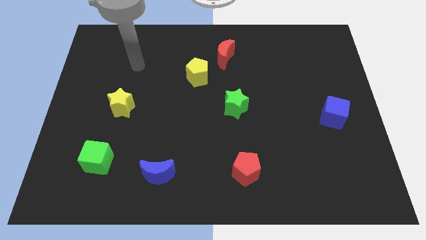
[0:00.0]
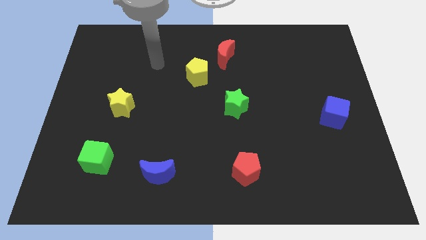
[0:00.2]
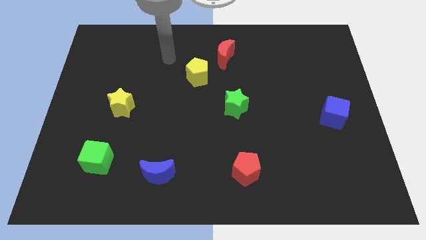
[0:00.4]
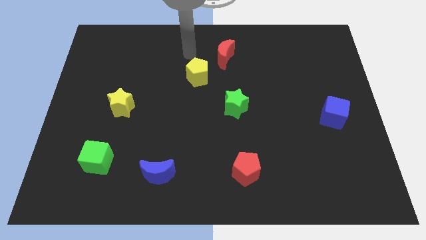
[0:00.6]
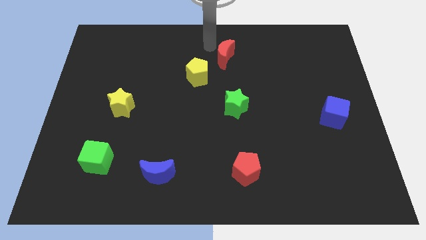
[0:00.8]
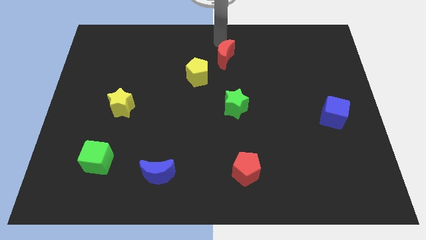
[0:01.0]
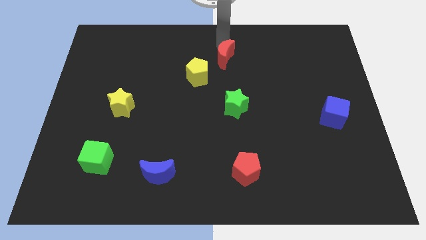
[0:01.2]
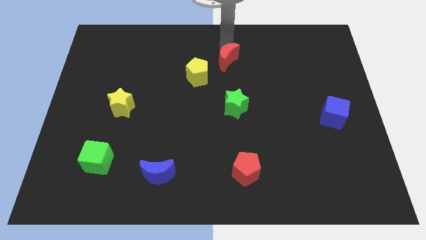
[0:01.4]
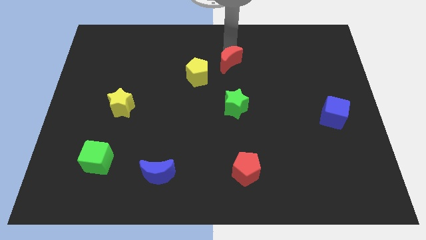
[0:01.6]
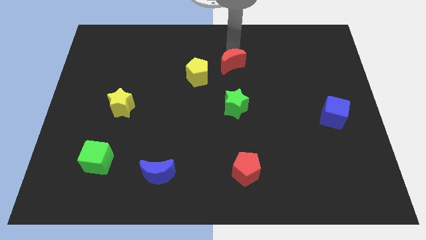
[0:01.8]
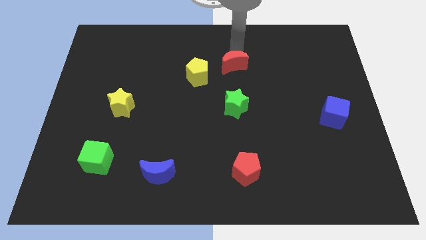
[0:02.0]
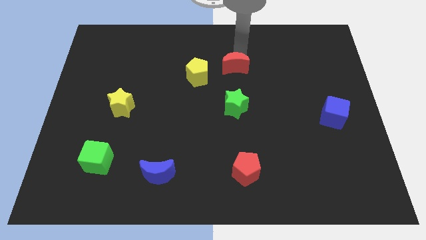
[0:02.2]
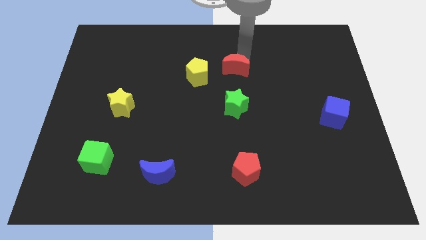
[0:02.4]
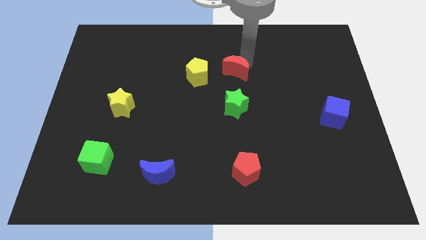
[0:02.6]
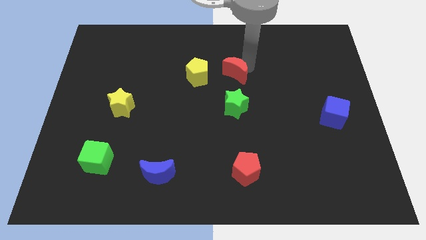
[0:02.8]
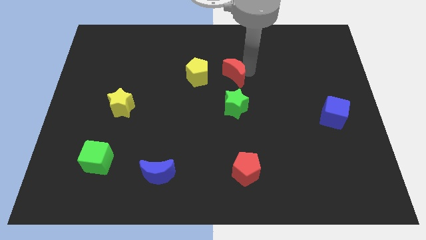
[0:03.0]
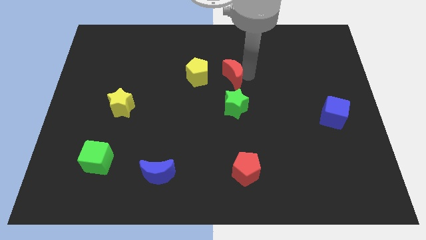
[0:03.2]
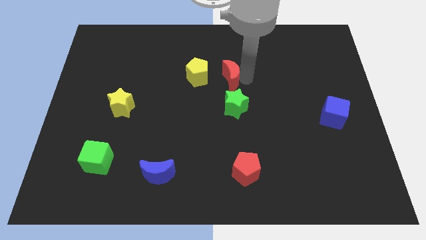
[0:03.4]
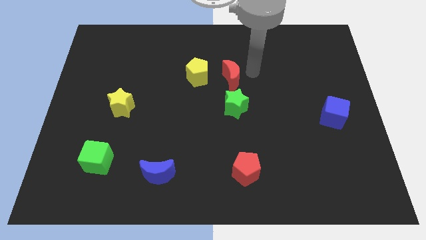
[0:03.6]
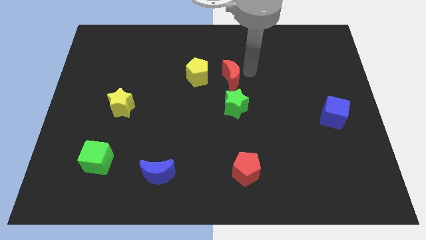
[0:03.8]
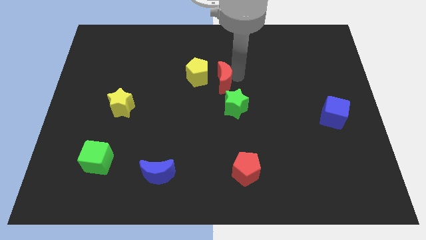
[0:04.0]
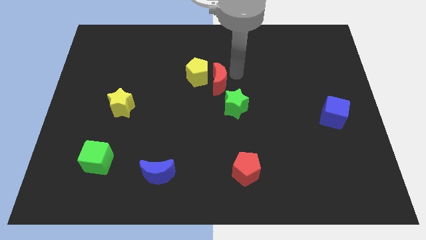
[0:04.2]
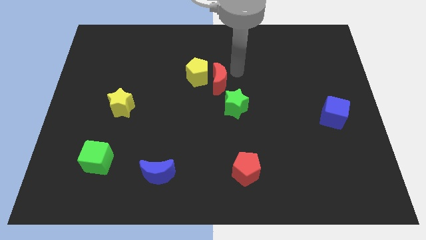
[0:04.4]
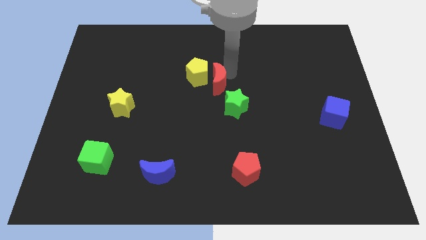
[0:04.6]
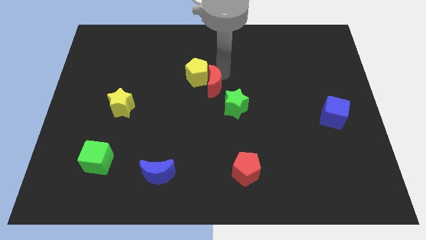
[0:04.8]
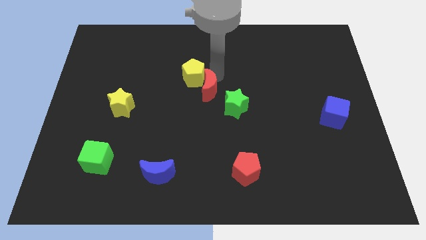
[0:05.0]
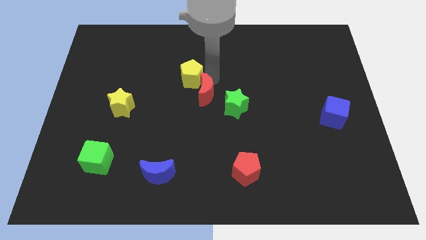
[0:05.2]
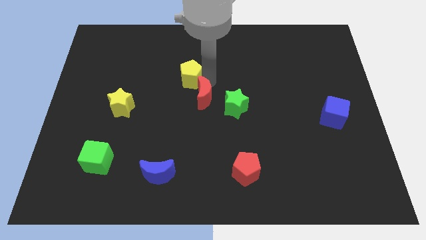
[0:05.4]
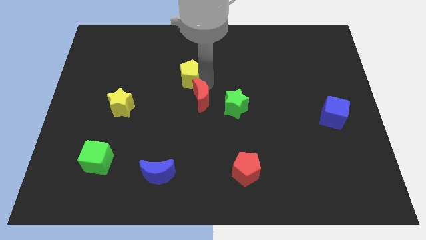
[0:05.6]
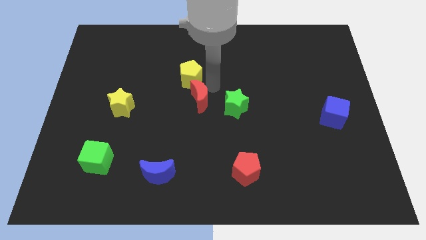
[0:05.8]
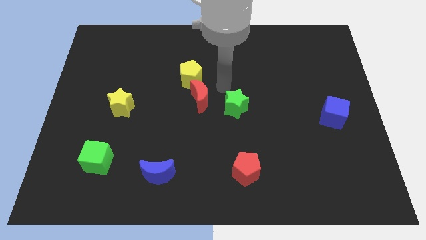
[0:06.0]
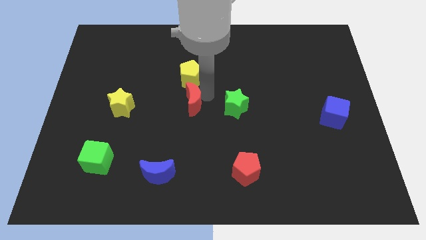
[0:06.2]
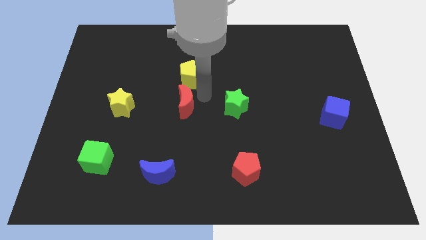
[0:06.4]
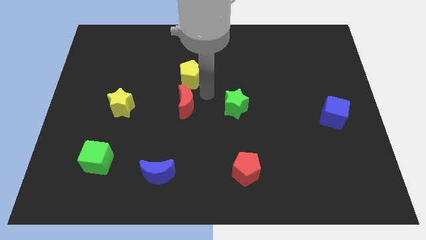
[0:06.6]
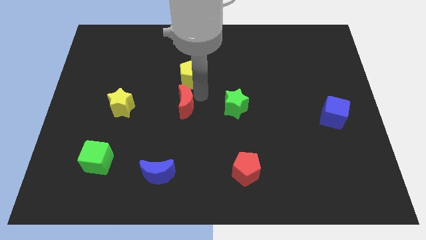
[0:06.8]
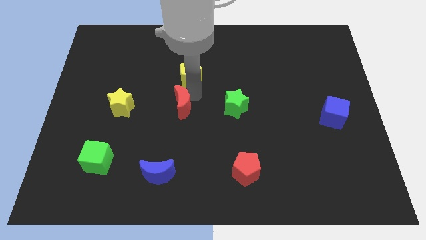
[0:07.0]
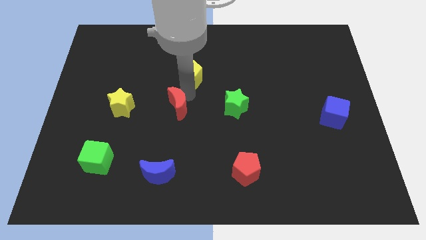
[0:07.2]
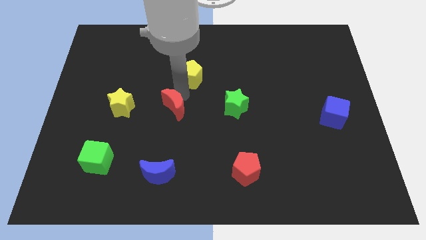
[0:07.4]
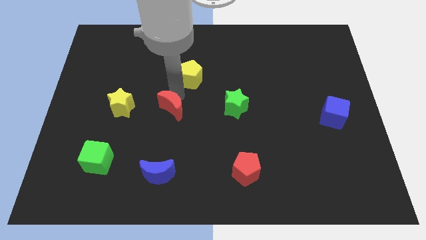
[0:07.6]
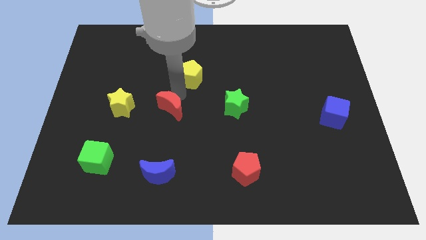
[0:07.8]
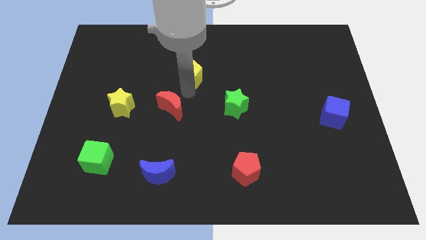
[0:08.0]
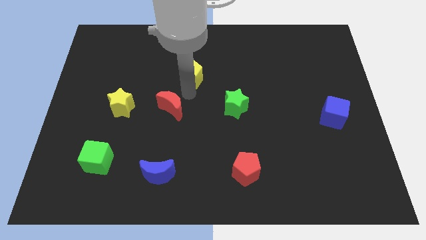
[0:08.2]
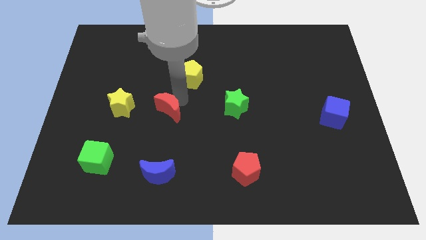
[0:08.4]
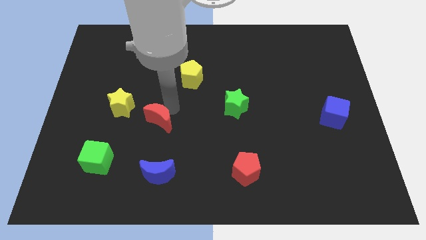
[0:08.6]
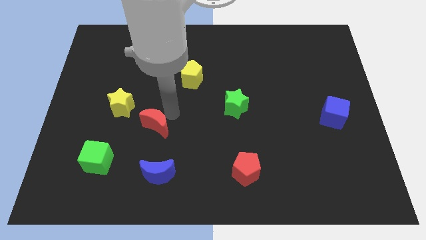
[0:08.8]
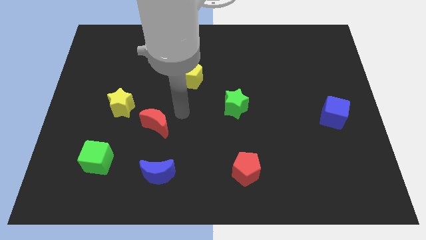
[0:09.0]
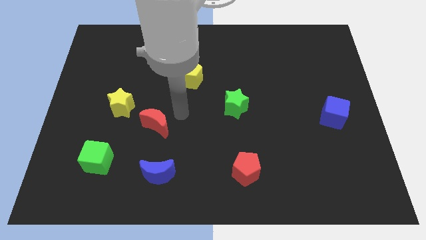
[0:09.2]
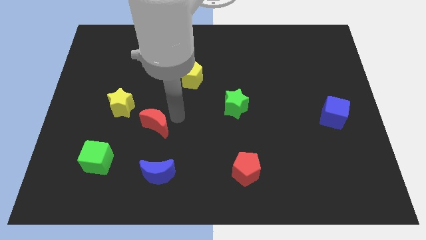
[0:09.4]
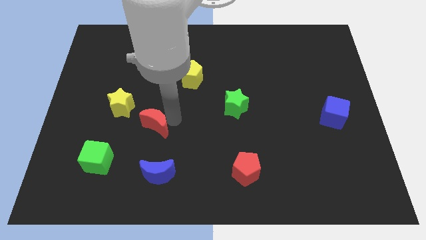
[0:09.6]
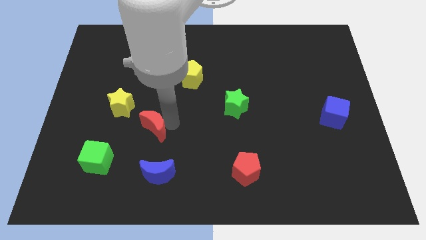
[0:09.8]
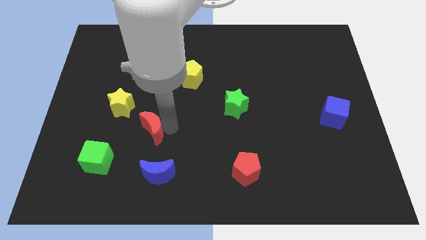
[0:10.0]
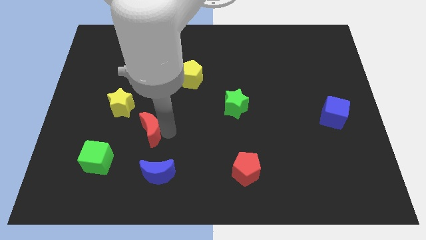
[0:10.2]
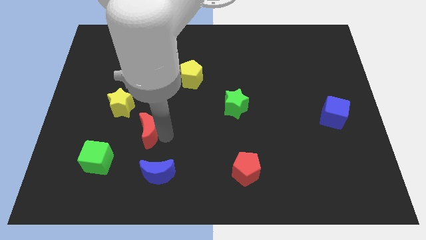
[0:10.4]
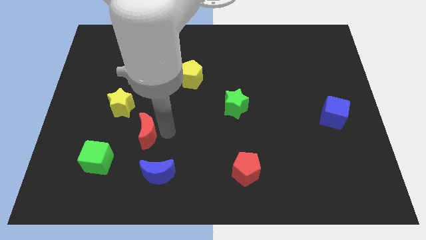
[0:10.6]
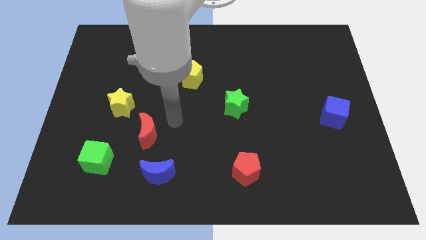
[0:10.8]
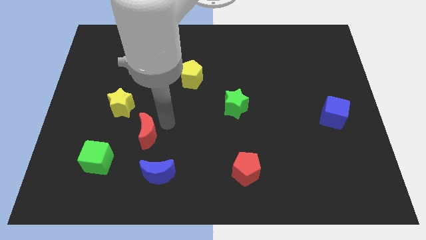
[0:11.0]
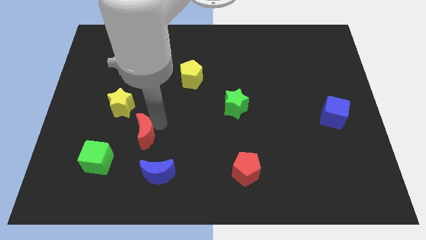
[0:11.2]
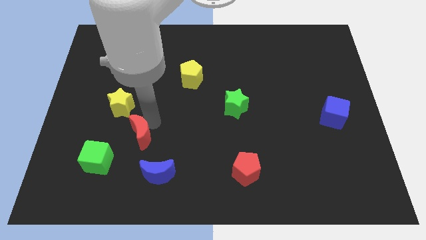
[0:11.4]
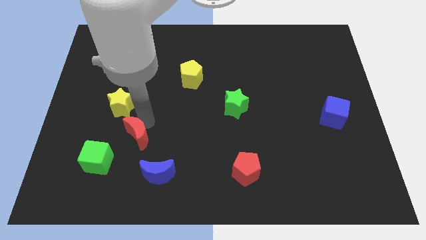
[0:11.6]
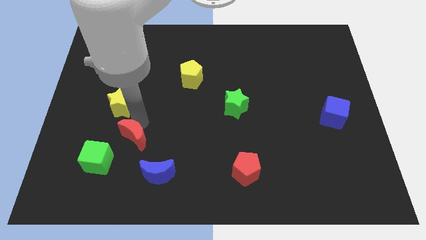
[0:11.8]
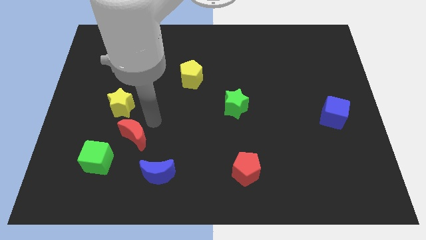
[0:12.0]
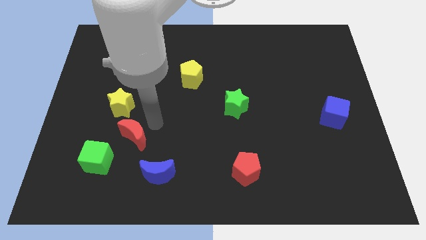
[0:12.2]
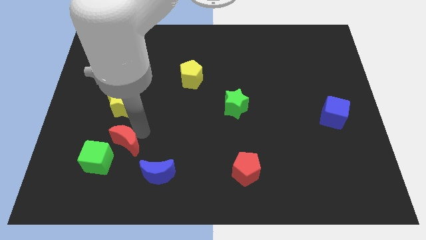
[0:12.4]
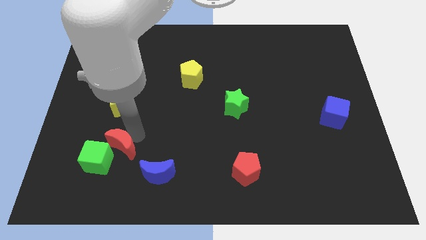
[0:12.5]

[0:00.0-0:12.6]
push the red moon next to the green cube

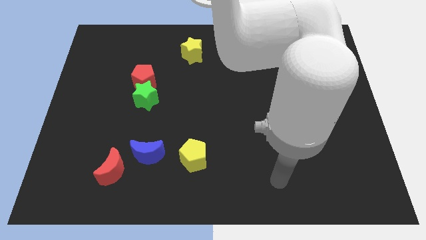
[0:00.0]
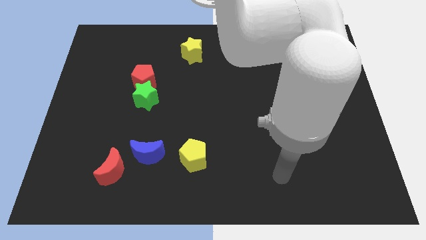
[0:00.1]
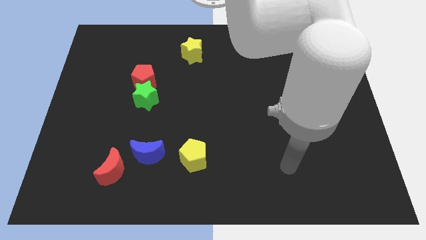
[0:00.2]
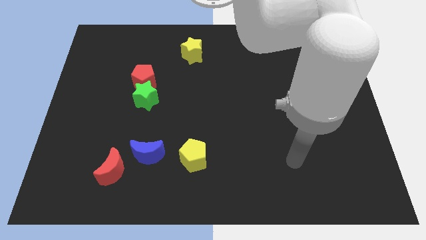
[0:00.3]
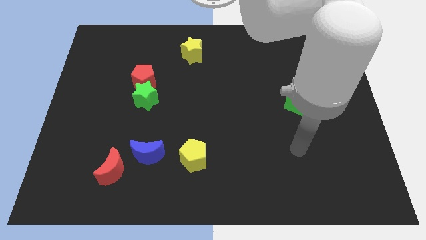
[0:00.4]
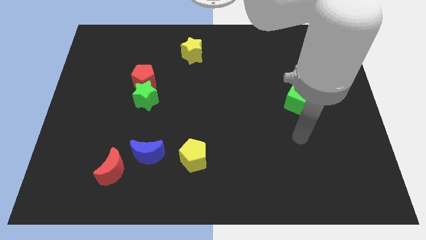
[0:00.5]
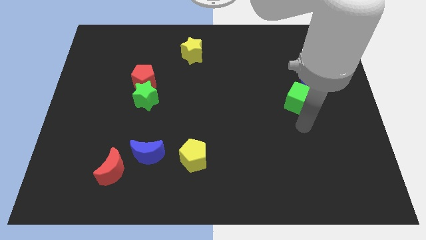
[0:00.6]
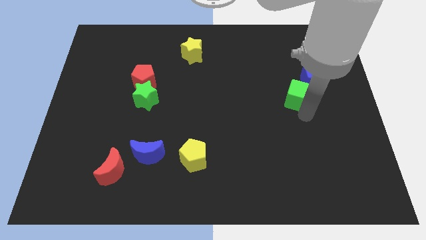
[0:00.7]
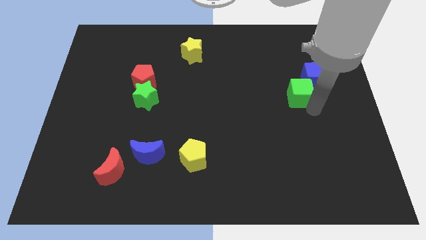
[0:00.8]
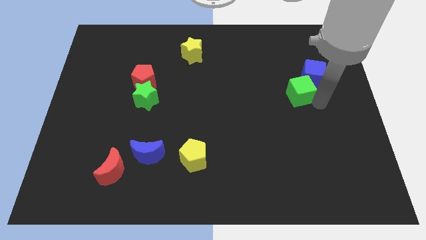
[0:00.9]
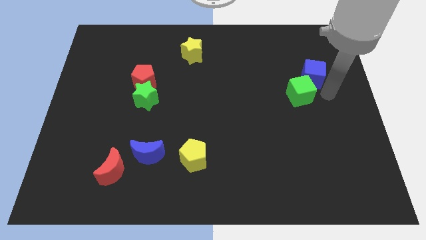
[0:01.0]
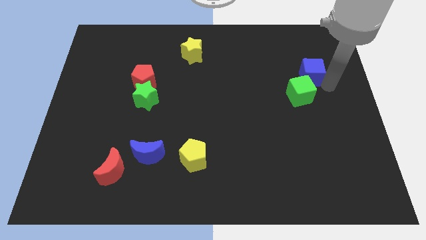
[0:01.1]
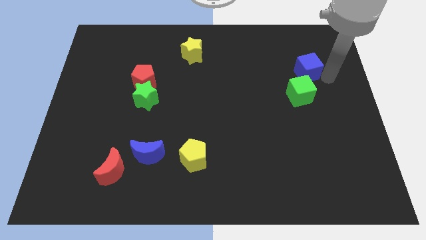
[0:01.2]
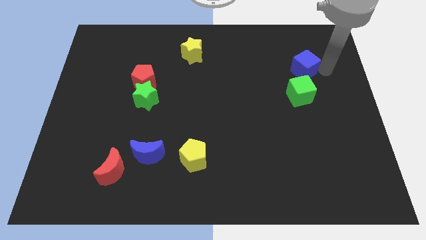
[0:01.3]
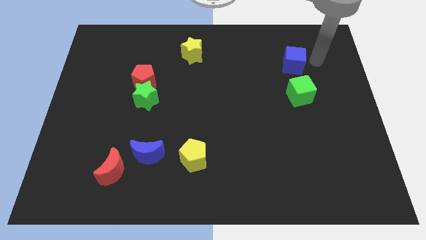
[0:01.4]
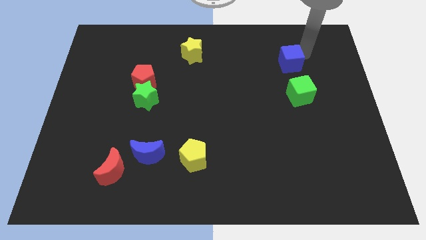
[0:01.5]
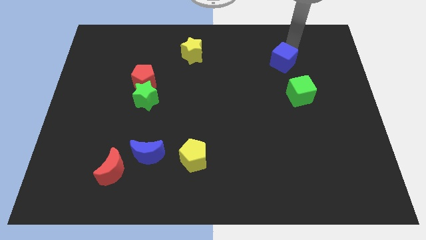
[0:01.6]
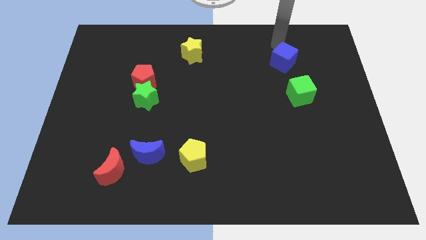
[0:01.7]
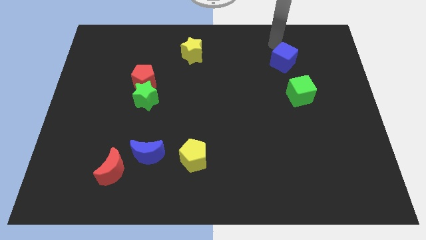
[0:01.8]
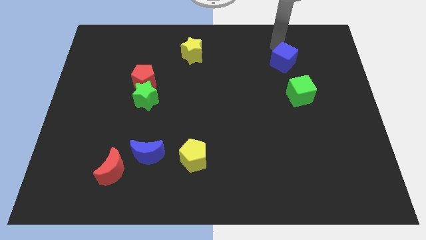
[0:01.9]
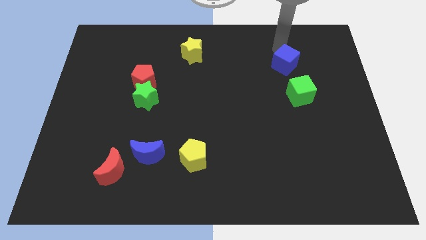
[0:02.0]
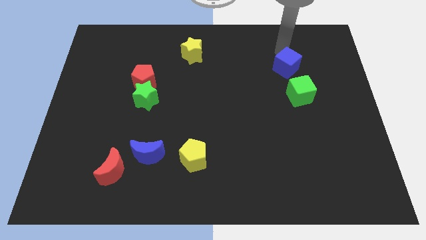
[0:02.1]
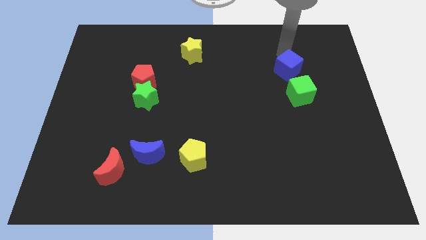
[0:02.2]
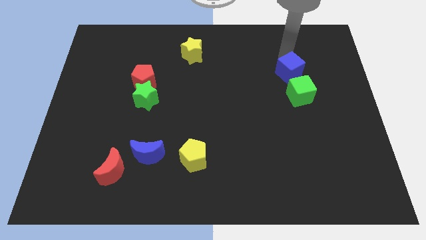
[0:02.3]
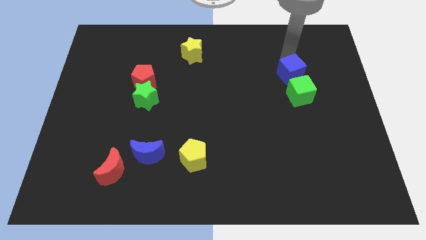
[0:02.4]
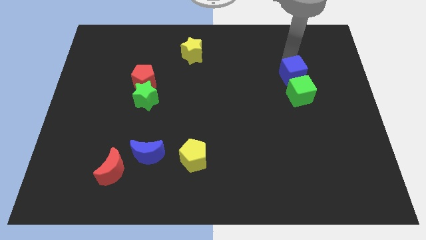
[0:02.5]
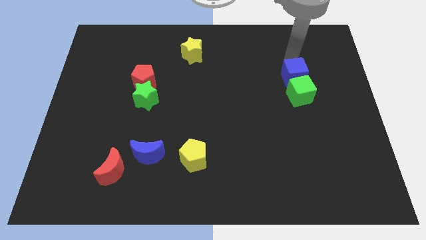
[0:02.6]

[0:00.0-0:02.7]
slide the blue cube towards the green cube
